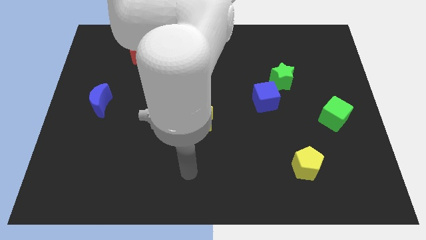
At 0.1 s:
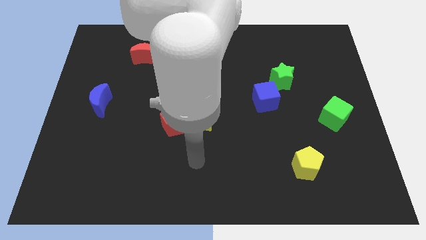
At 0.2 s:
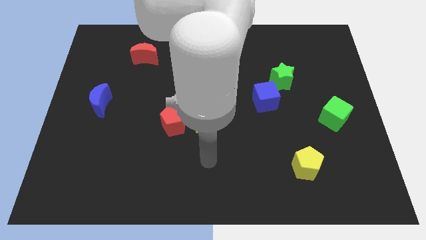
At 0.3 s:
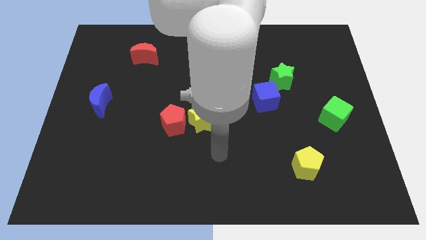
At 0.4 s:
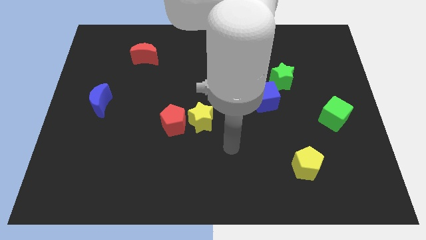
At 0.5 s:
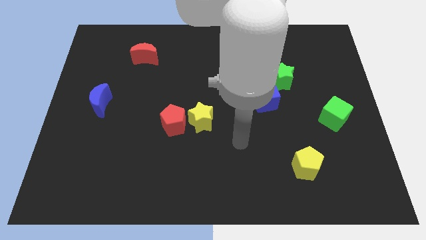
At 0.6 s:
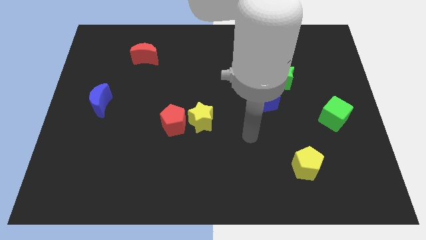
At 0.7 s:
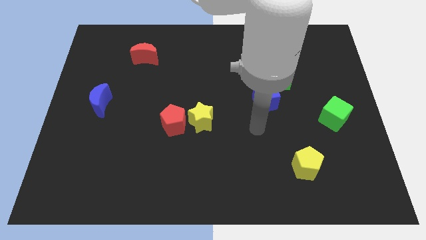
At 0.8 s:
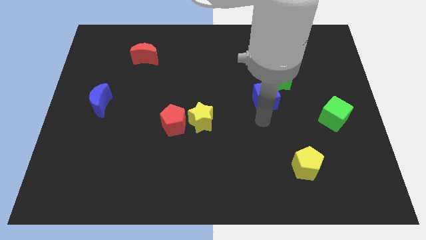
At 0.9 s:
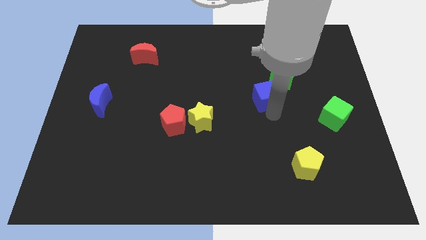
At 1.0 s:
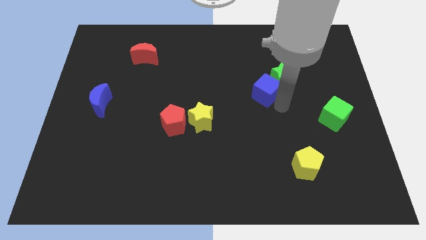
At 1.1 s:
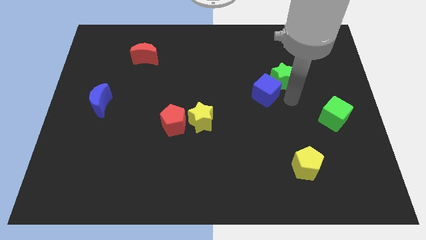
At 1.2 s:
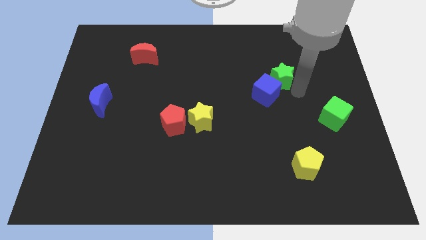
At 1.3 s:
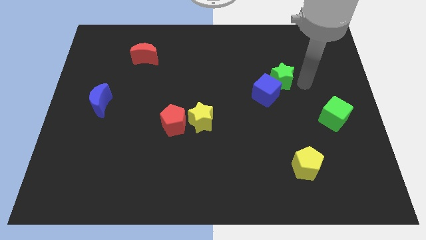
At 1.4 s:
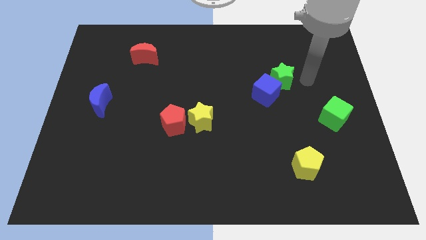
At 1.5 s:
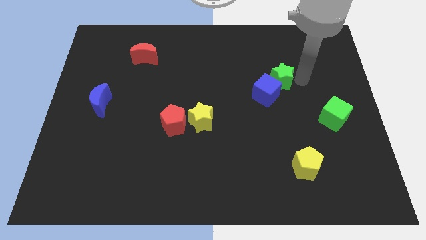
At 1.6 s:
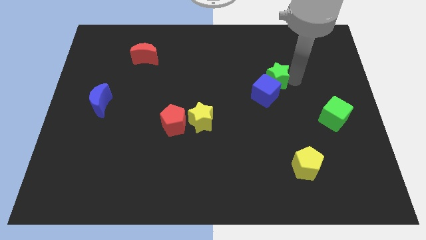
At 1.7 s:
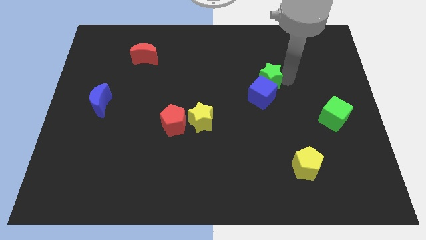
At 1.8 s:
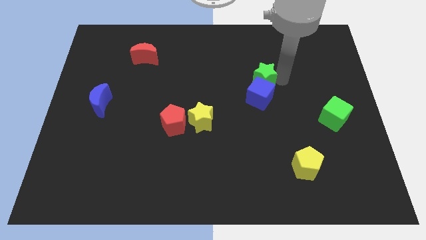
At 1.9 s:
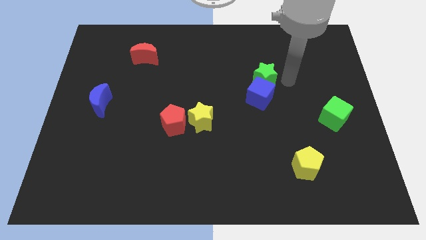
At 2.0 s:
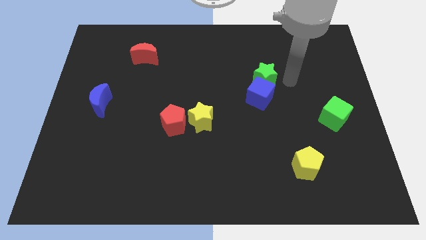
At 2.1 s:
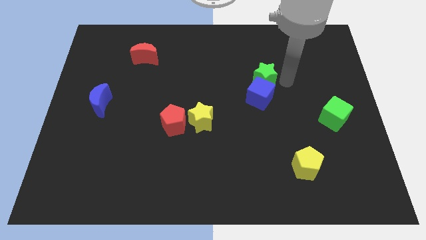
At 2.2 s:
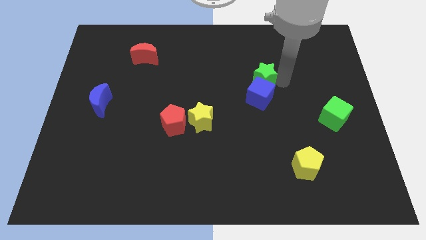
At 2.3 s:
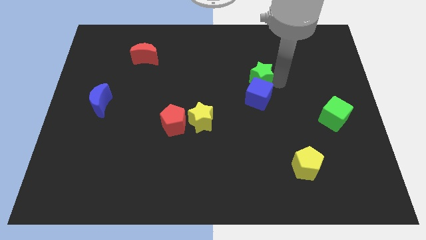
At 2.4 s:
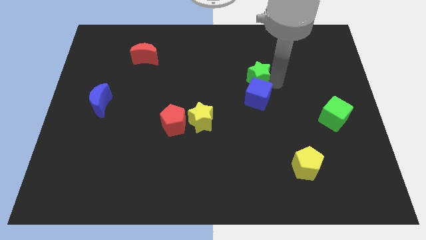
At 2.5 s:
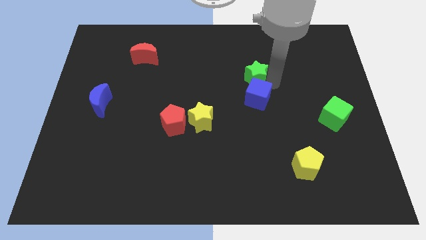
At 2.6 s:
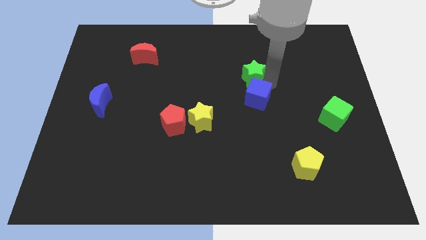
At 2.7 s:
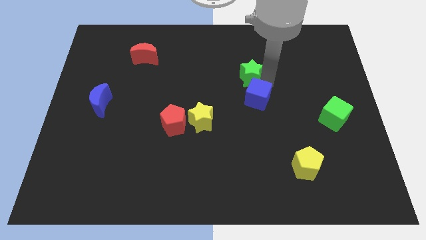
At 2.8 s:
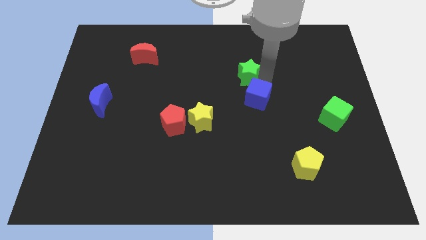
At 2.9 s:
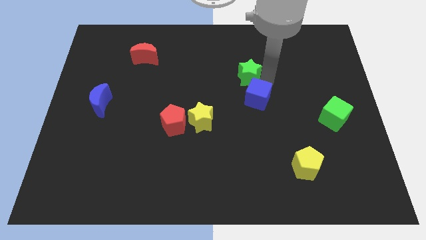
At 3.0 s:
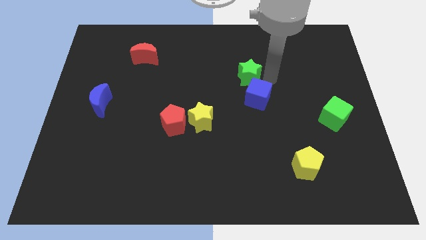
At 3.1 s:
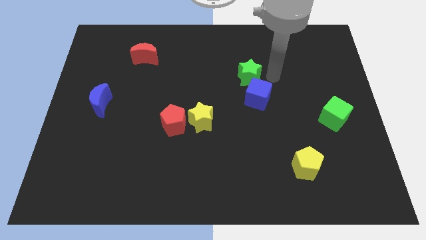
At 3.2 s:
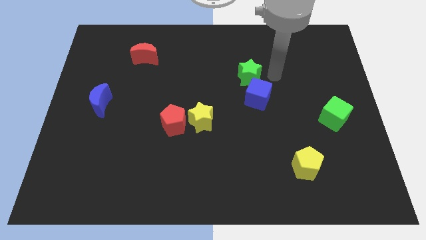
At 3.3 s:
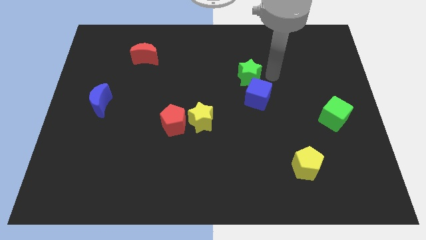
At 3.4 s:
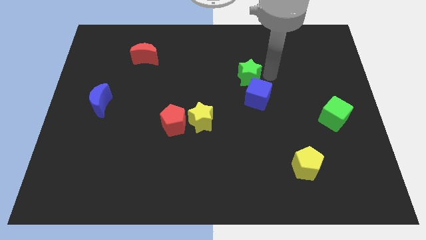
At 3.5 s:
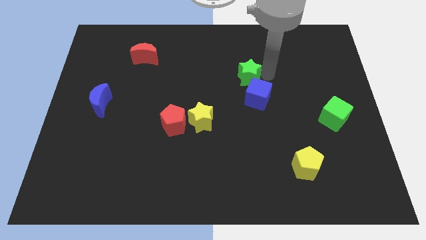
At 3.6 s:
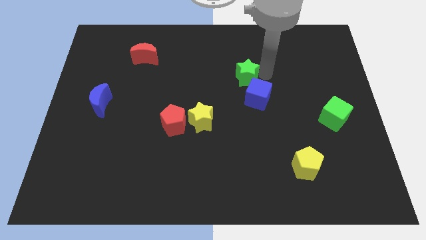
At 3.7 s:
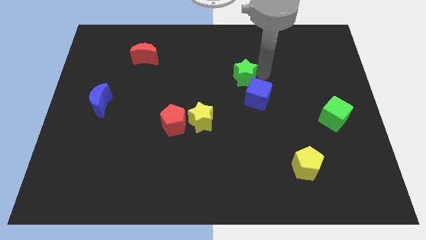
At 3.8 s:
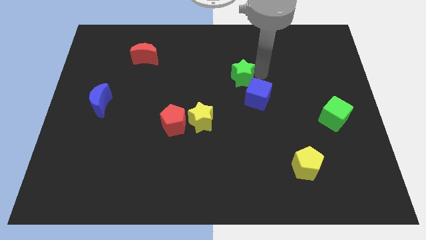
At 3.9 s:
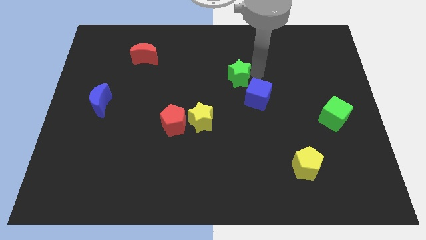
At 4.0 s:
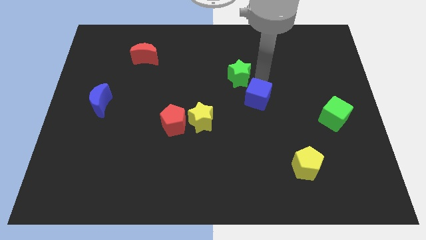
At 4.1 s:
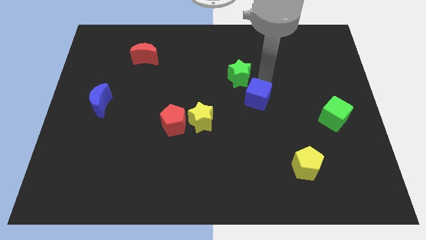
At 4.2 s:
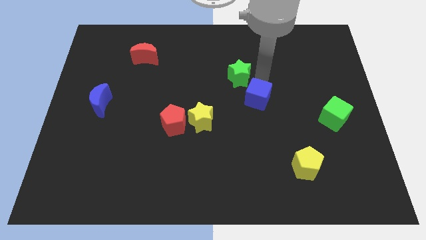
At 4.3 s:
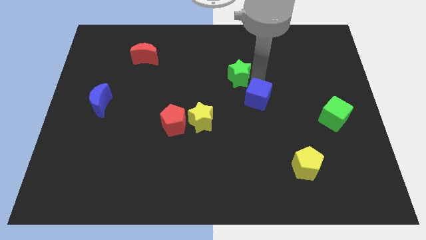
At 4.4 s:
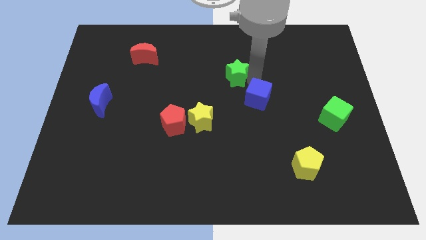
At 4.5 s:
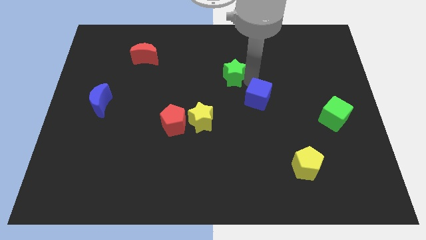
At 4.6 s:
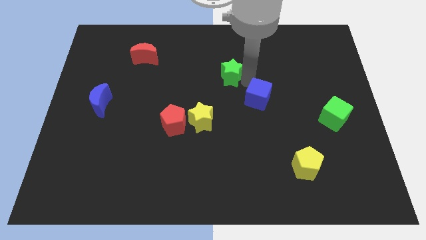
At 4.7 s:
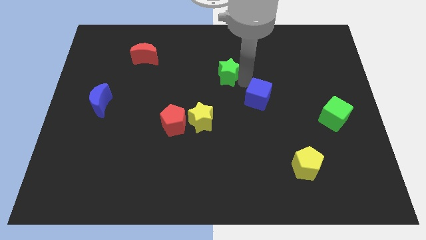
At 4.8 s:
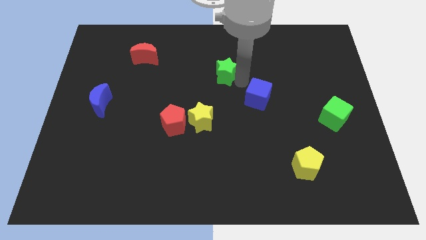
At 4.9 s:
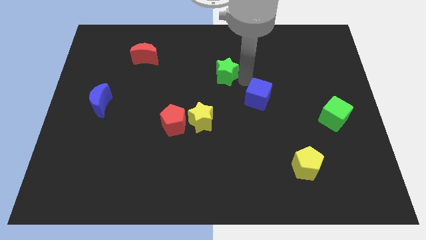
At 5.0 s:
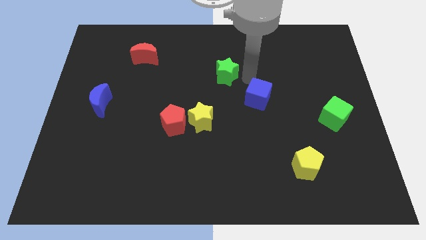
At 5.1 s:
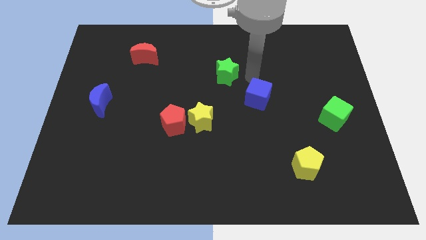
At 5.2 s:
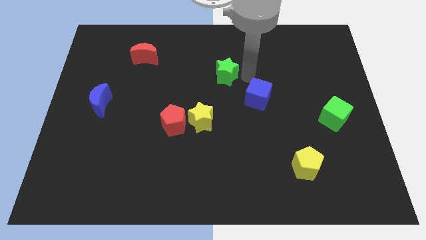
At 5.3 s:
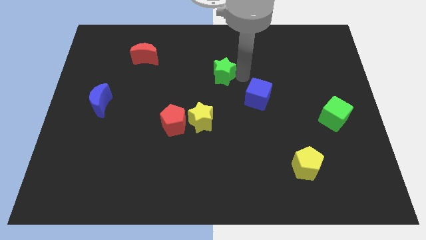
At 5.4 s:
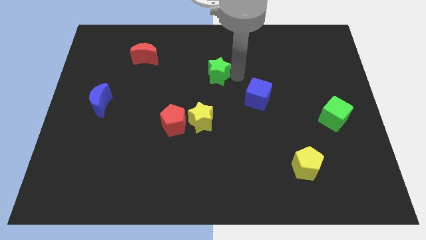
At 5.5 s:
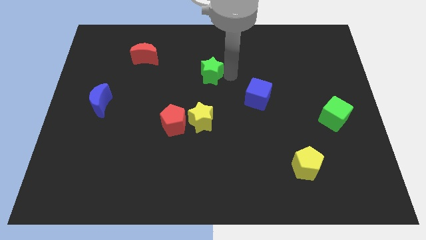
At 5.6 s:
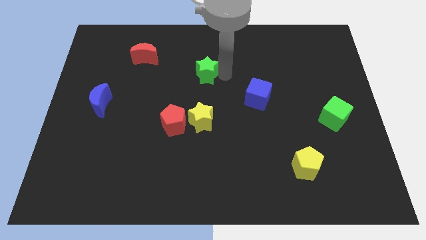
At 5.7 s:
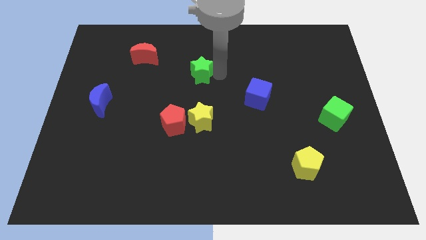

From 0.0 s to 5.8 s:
slide the green star to the left

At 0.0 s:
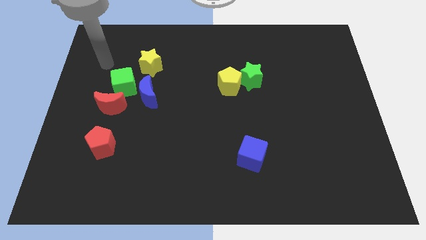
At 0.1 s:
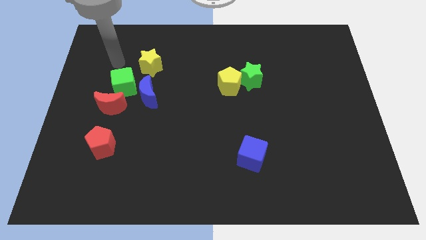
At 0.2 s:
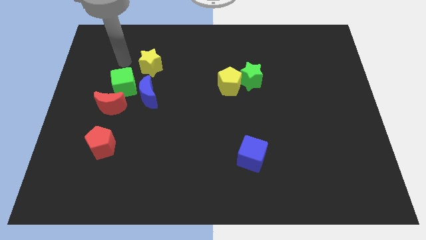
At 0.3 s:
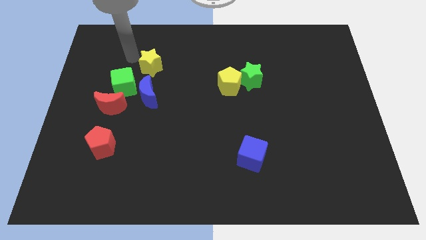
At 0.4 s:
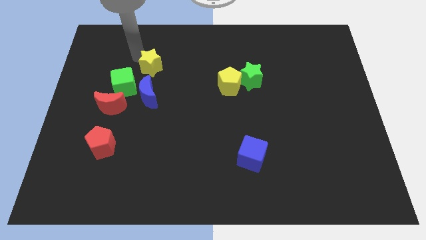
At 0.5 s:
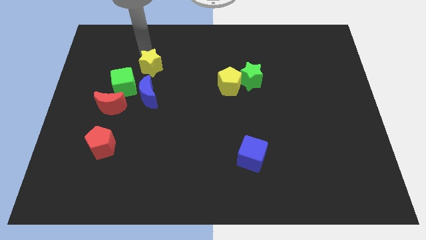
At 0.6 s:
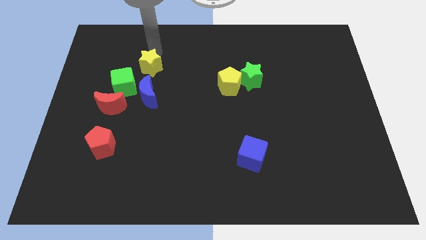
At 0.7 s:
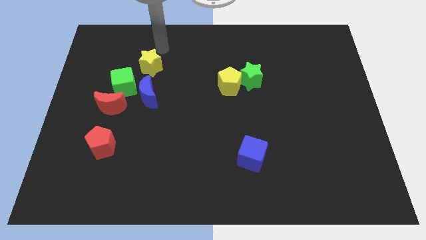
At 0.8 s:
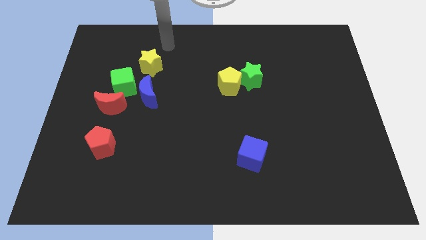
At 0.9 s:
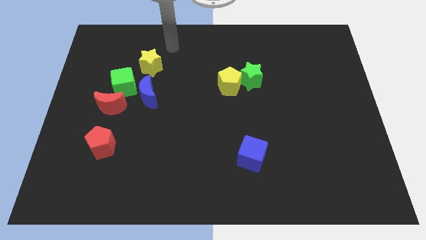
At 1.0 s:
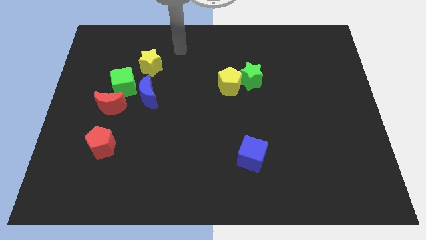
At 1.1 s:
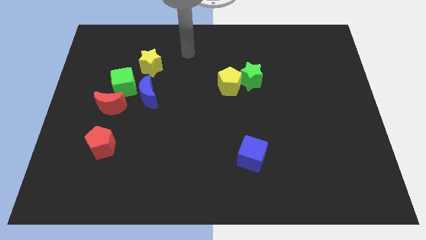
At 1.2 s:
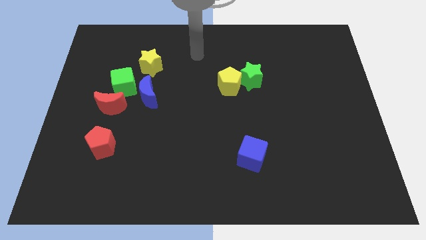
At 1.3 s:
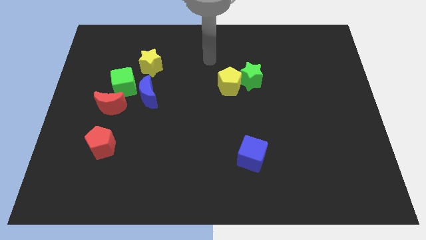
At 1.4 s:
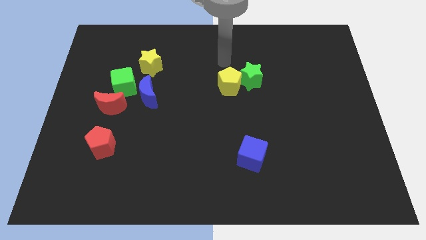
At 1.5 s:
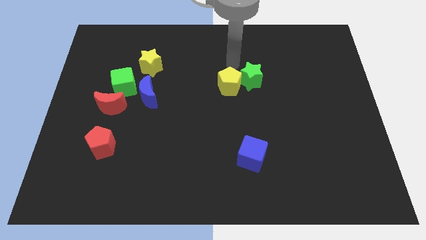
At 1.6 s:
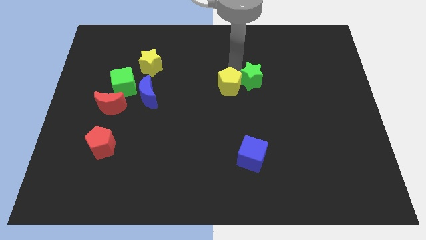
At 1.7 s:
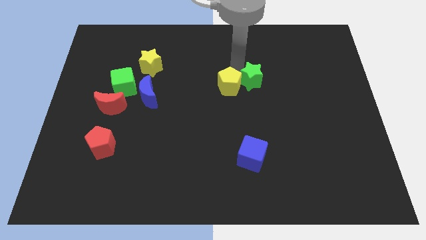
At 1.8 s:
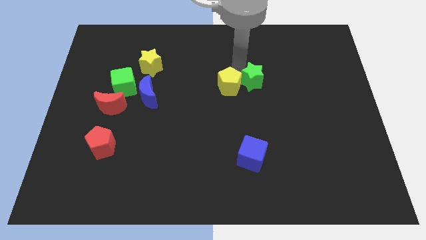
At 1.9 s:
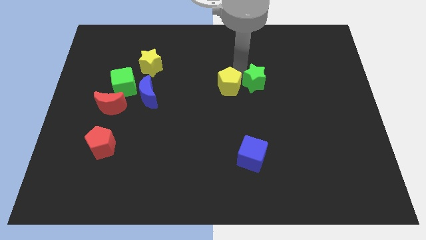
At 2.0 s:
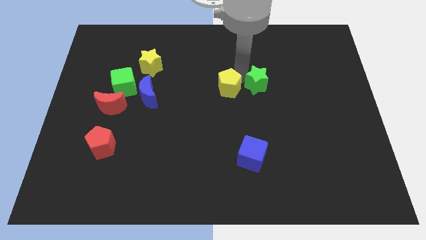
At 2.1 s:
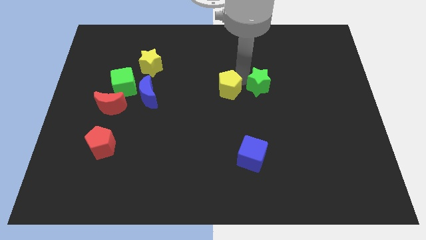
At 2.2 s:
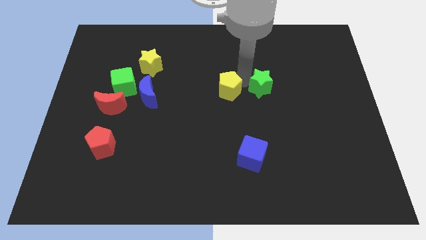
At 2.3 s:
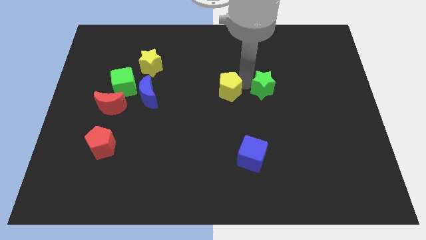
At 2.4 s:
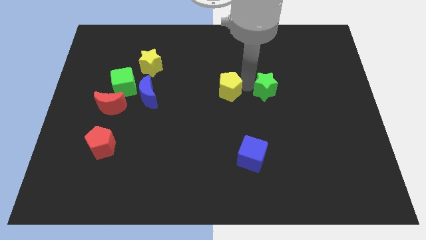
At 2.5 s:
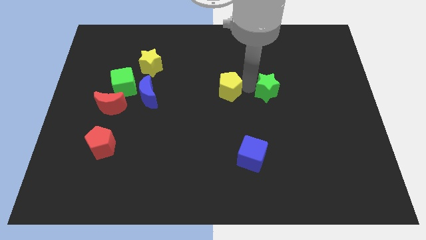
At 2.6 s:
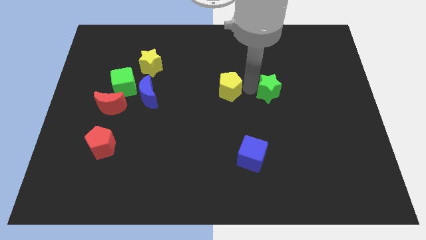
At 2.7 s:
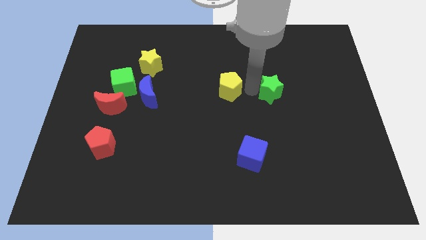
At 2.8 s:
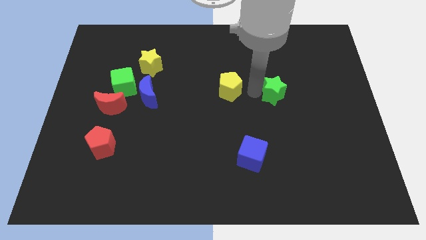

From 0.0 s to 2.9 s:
slide the green star slightly downwards and to the right
